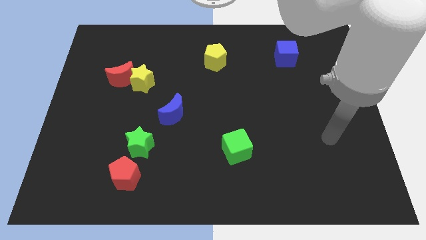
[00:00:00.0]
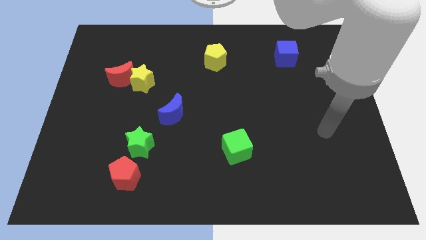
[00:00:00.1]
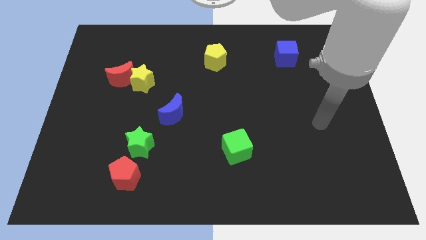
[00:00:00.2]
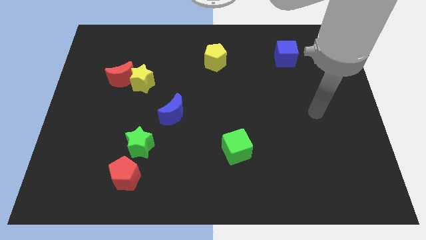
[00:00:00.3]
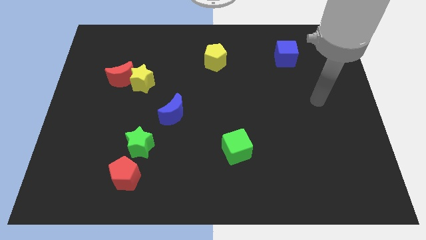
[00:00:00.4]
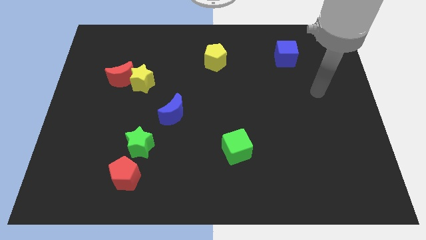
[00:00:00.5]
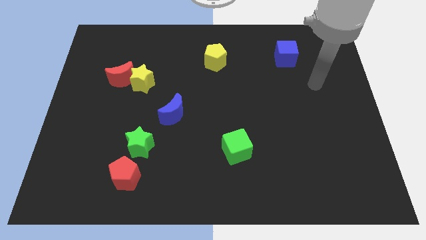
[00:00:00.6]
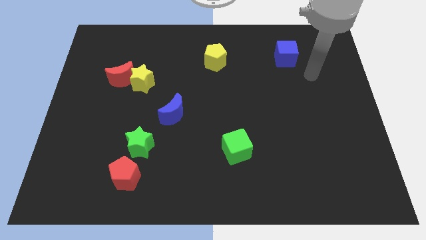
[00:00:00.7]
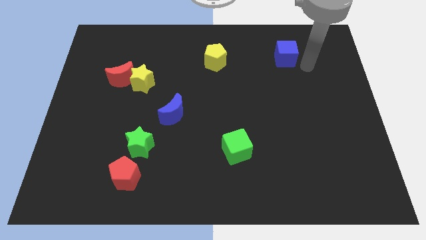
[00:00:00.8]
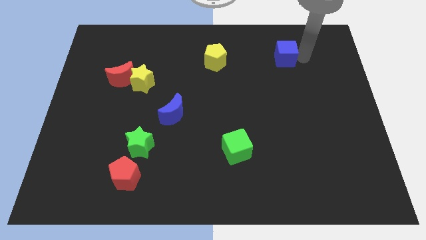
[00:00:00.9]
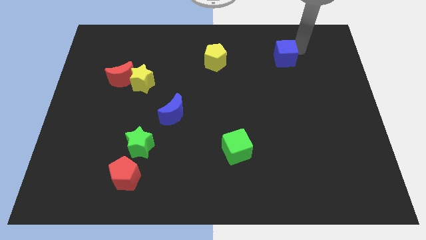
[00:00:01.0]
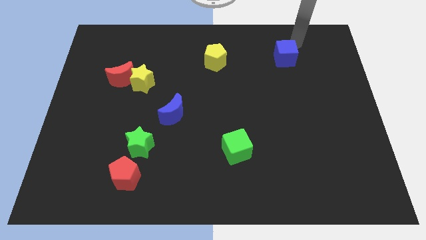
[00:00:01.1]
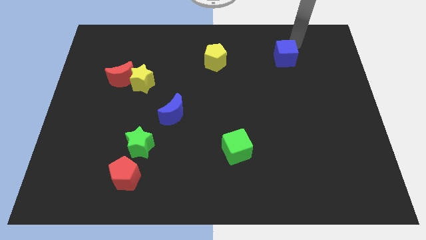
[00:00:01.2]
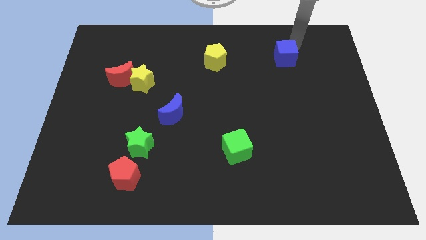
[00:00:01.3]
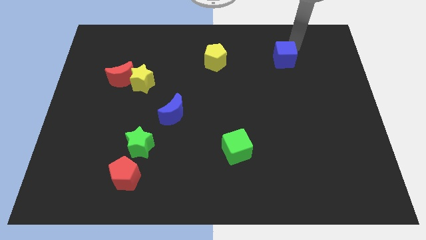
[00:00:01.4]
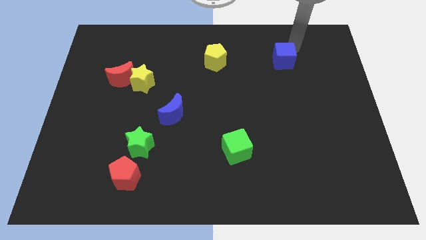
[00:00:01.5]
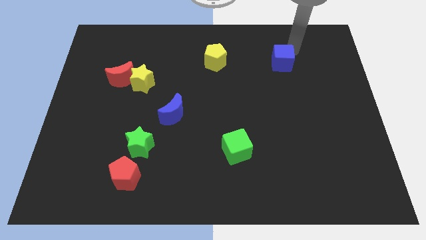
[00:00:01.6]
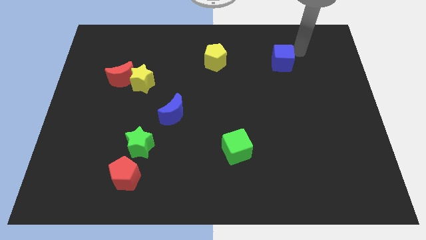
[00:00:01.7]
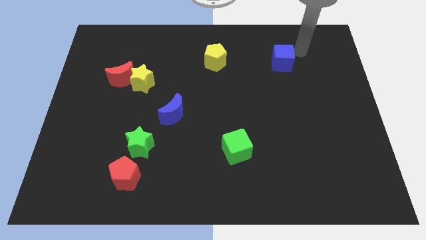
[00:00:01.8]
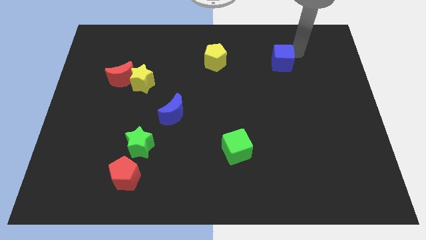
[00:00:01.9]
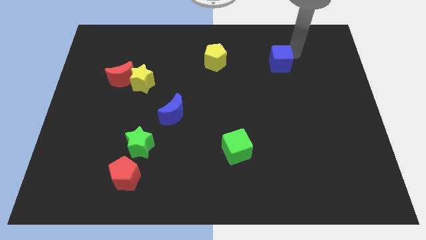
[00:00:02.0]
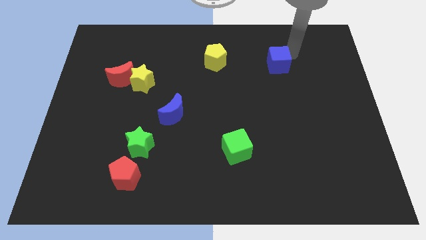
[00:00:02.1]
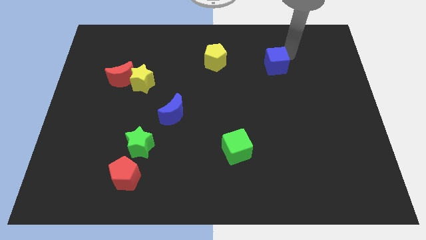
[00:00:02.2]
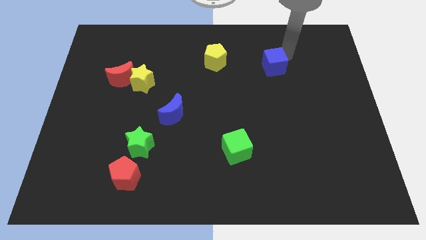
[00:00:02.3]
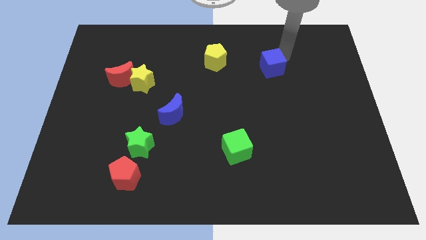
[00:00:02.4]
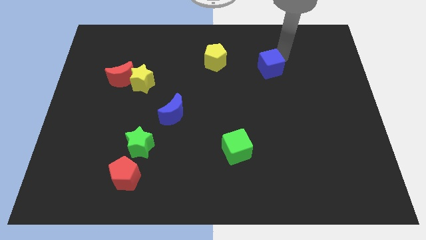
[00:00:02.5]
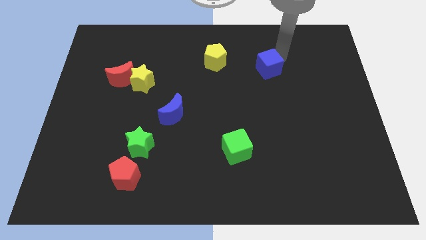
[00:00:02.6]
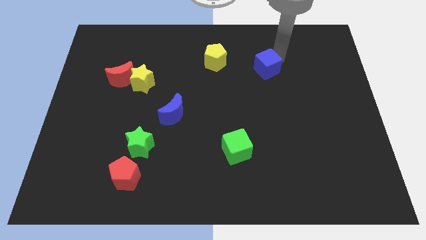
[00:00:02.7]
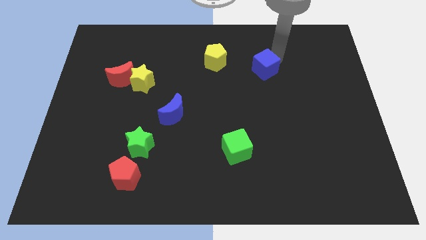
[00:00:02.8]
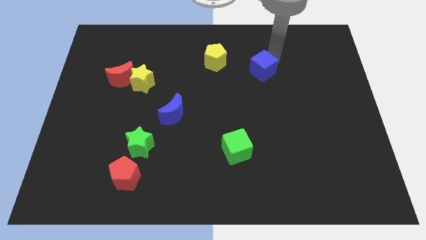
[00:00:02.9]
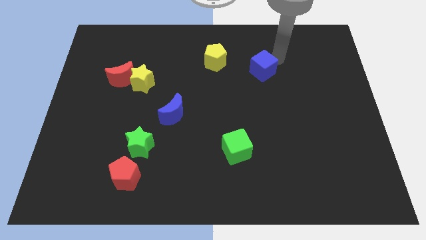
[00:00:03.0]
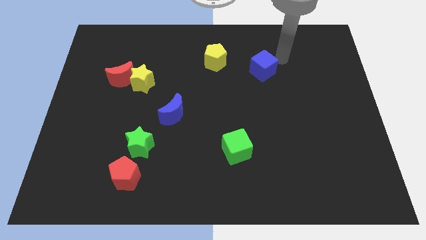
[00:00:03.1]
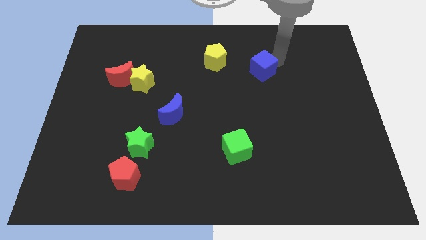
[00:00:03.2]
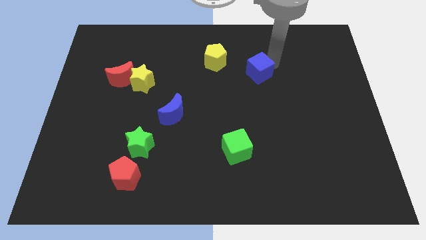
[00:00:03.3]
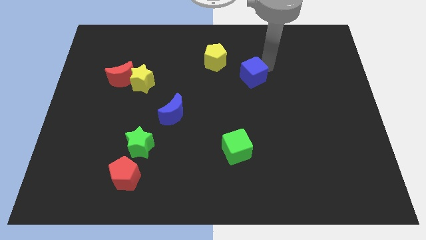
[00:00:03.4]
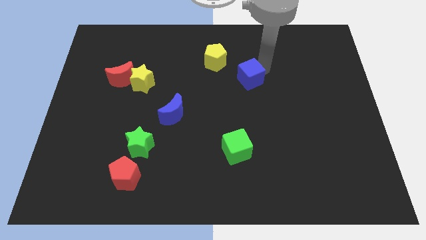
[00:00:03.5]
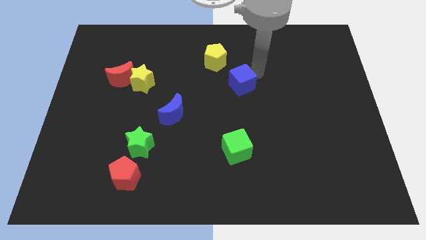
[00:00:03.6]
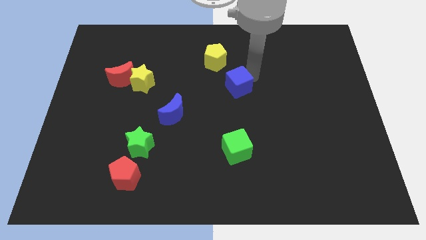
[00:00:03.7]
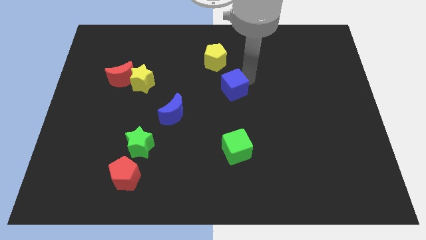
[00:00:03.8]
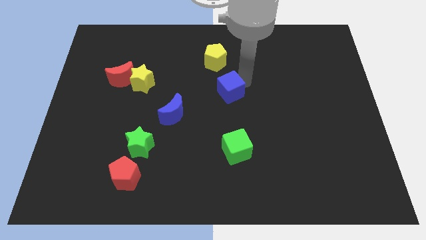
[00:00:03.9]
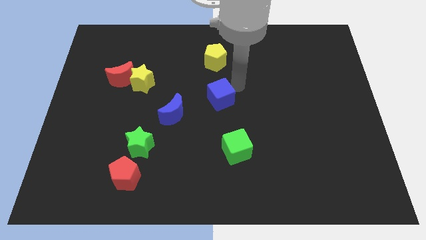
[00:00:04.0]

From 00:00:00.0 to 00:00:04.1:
slide the blue cube downwards and then left

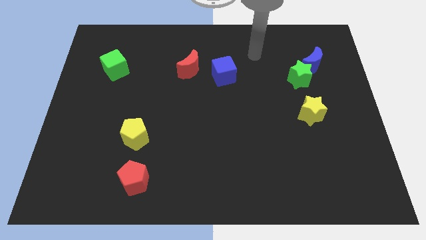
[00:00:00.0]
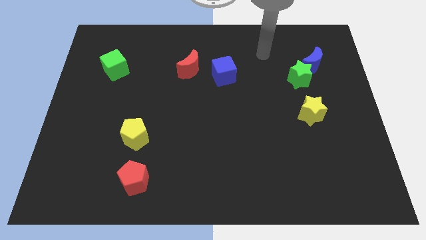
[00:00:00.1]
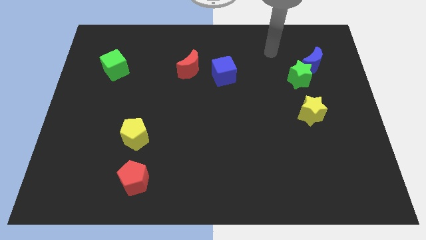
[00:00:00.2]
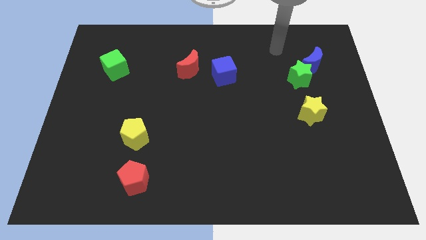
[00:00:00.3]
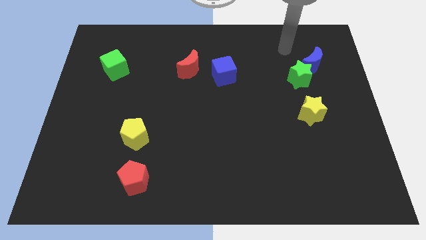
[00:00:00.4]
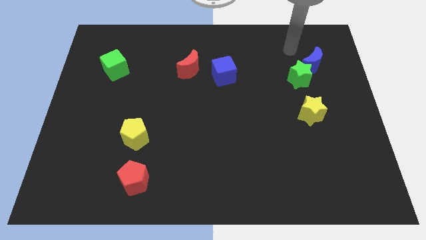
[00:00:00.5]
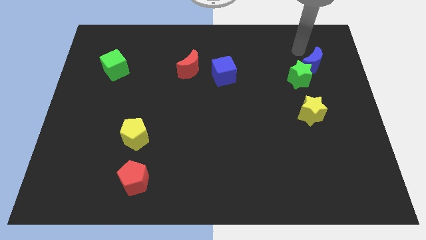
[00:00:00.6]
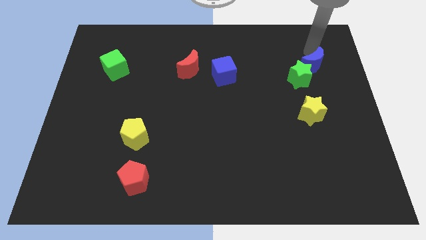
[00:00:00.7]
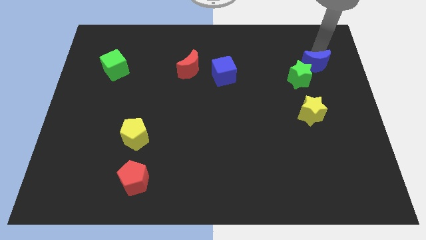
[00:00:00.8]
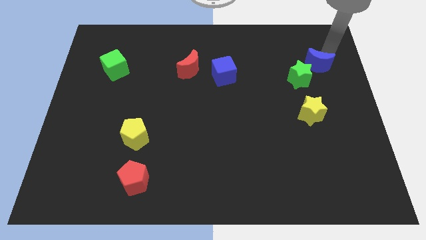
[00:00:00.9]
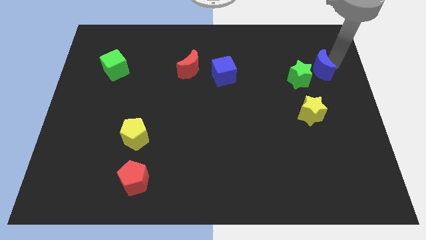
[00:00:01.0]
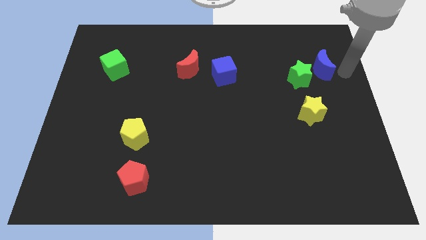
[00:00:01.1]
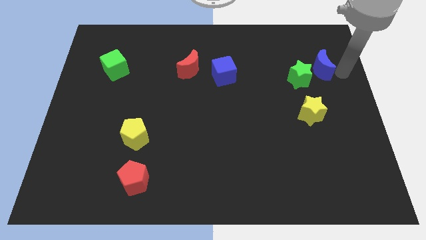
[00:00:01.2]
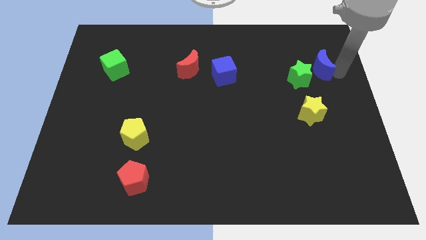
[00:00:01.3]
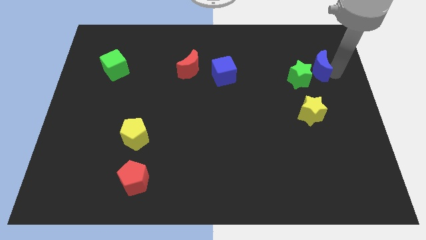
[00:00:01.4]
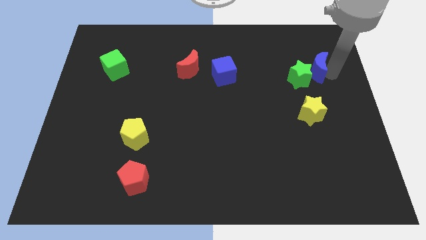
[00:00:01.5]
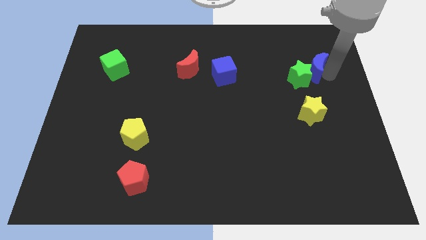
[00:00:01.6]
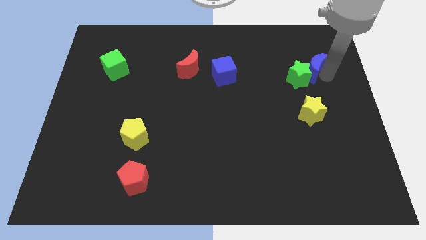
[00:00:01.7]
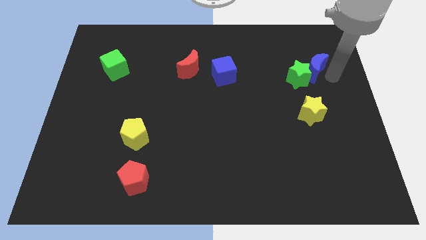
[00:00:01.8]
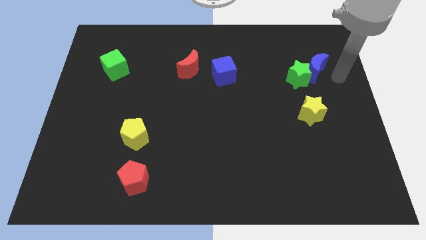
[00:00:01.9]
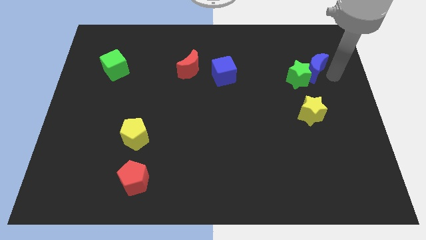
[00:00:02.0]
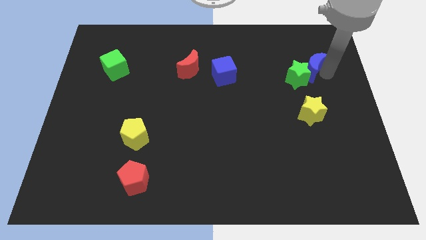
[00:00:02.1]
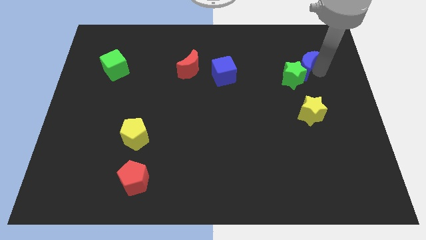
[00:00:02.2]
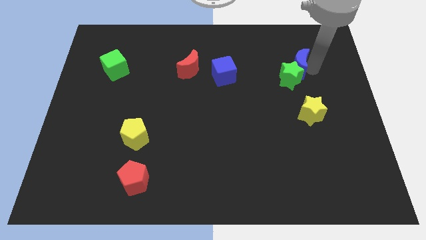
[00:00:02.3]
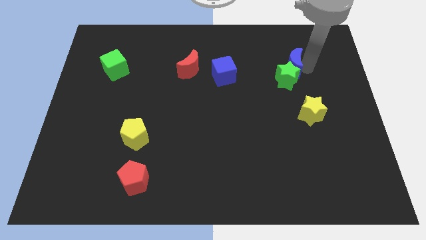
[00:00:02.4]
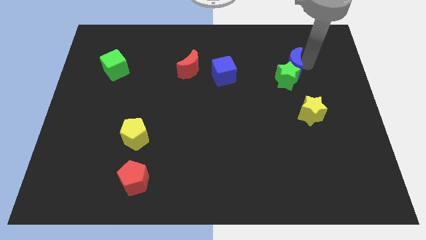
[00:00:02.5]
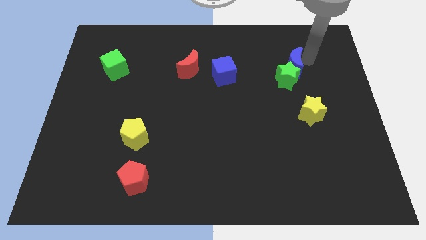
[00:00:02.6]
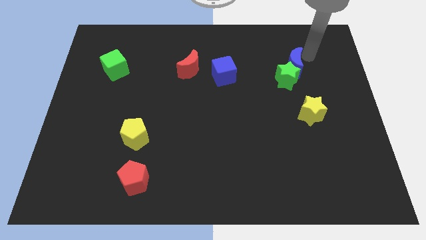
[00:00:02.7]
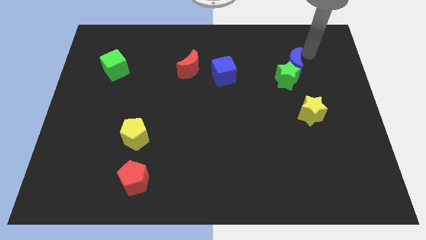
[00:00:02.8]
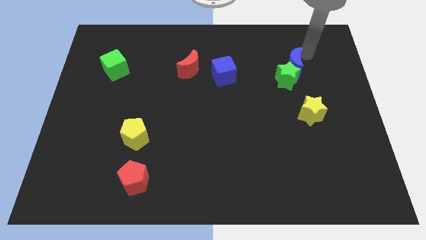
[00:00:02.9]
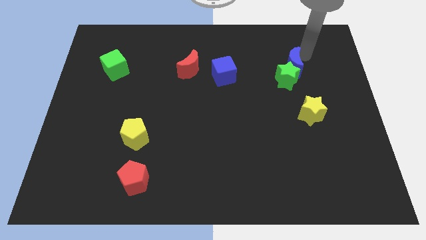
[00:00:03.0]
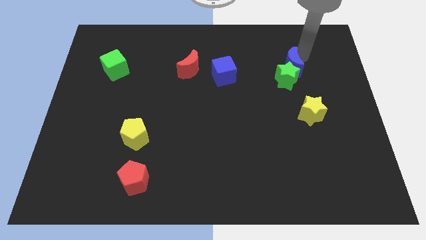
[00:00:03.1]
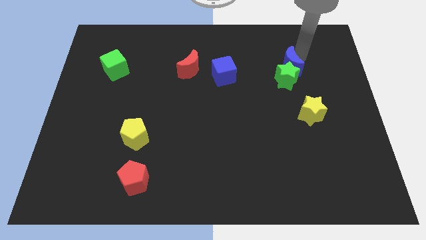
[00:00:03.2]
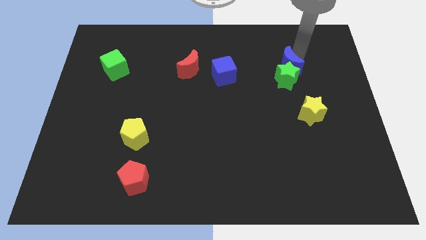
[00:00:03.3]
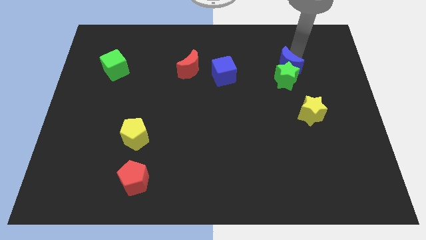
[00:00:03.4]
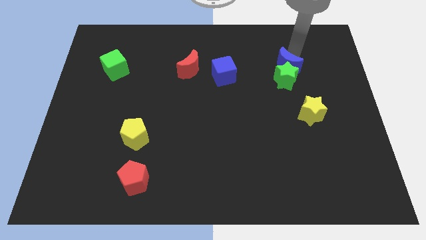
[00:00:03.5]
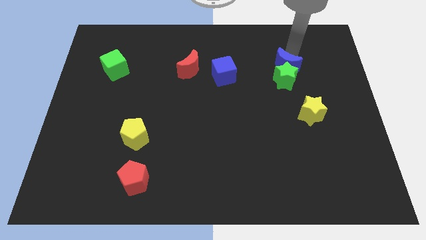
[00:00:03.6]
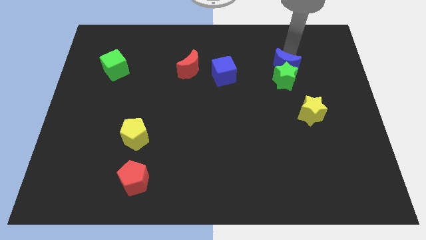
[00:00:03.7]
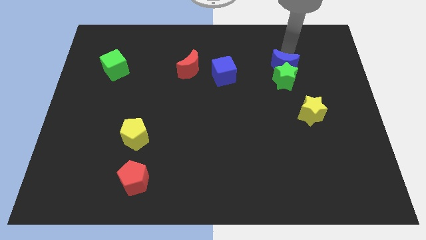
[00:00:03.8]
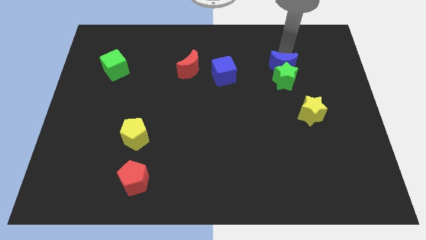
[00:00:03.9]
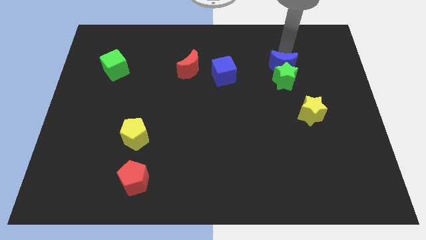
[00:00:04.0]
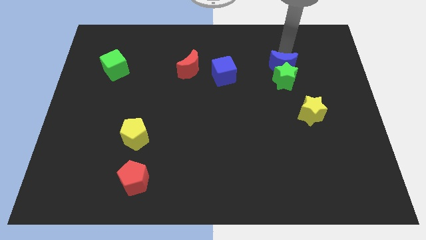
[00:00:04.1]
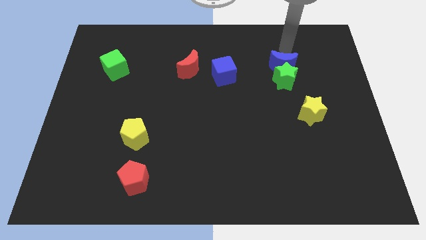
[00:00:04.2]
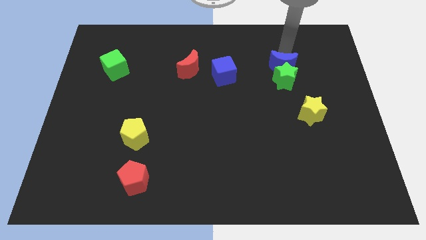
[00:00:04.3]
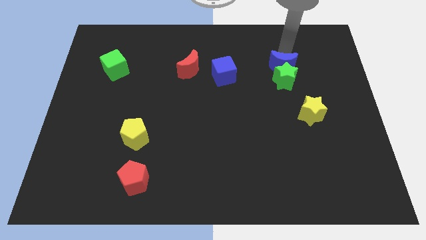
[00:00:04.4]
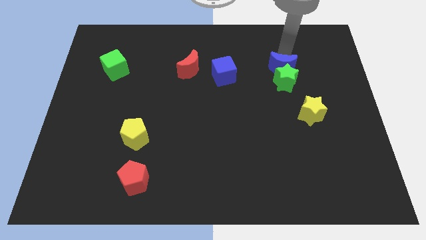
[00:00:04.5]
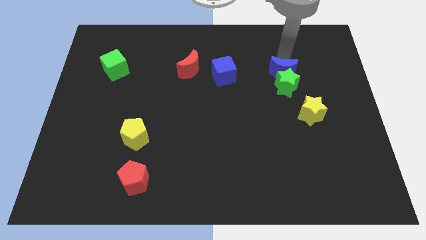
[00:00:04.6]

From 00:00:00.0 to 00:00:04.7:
slightly slide the blue moon downwards and left diagonally
